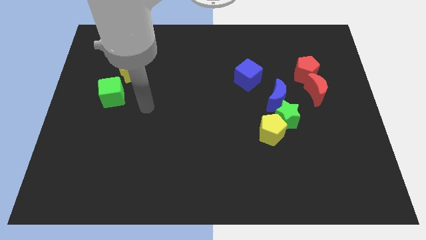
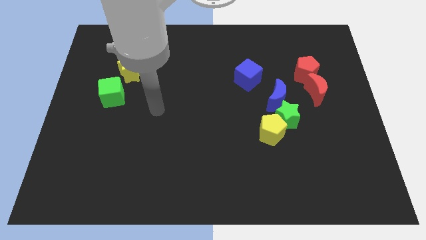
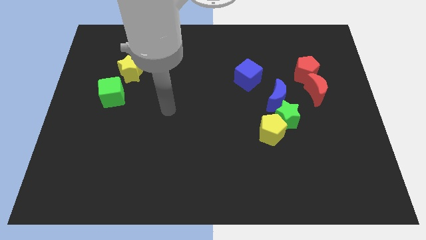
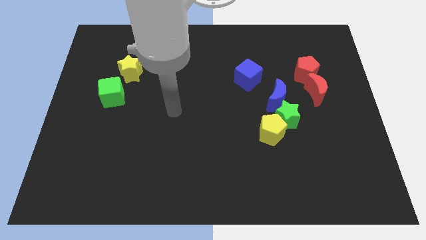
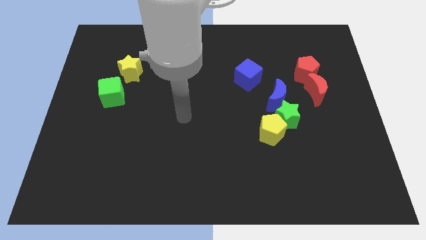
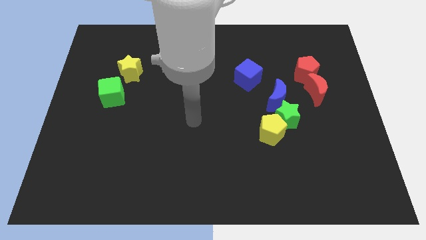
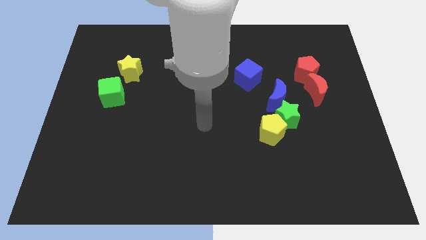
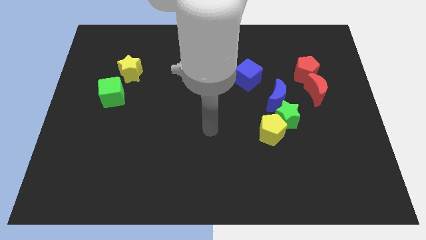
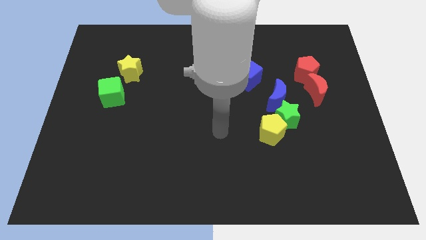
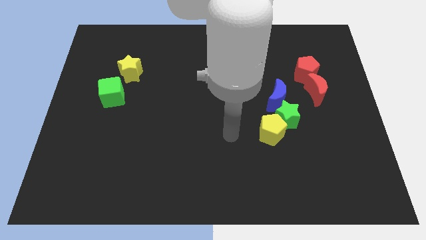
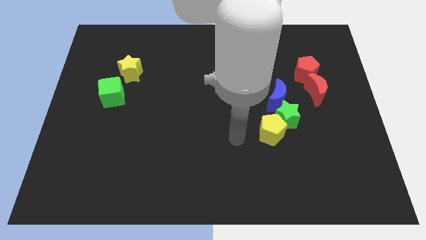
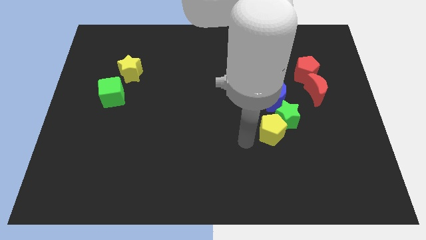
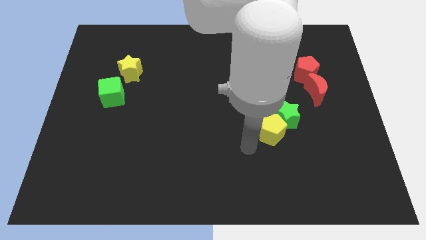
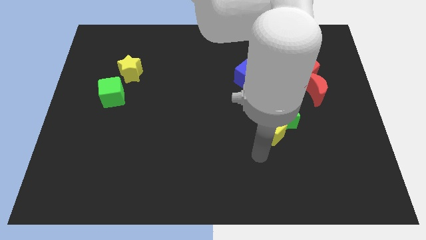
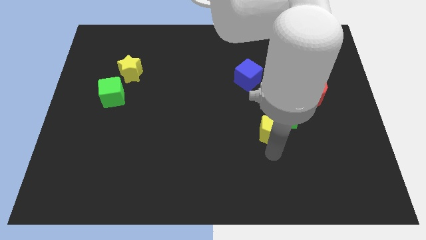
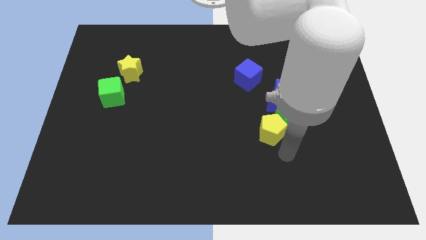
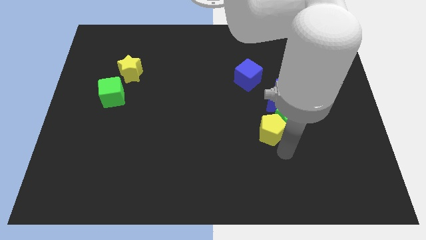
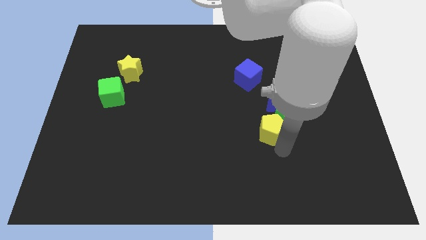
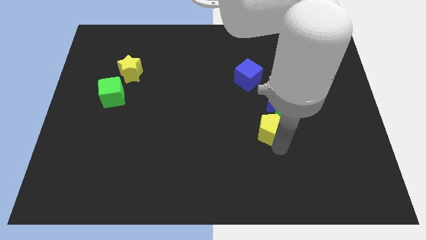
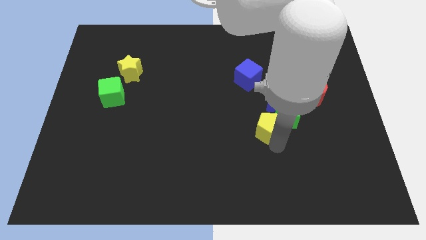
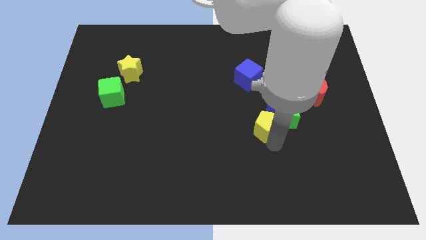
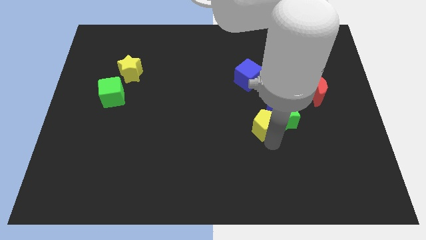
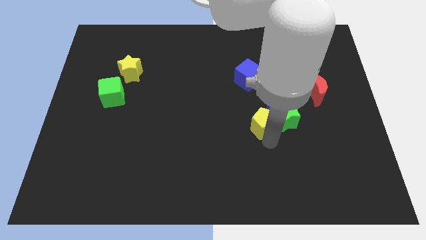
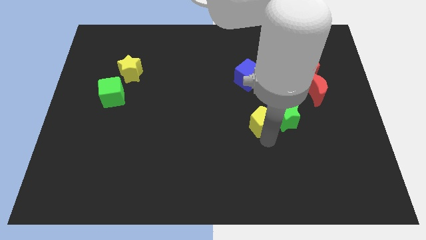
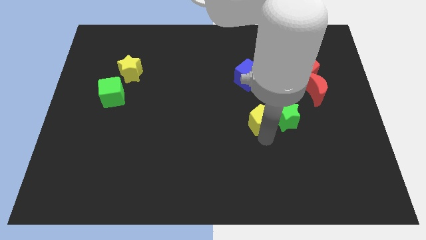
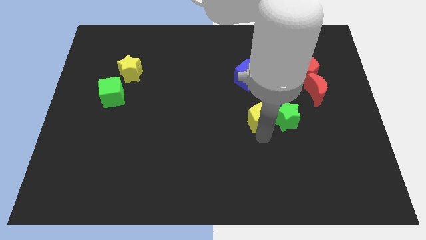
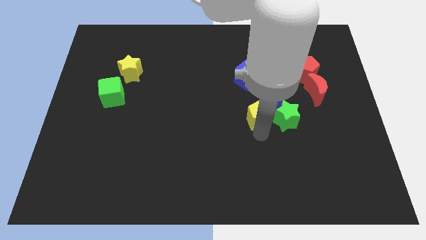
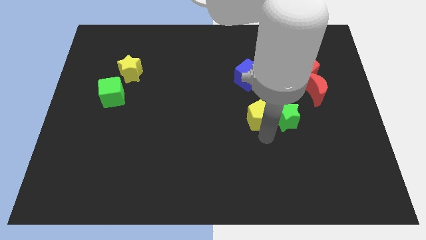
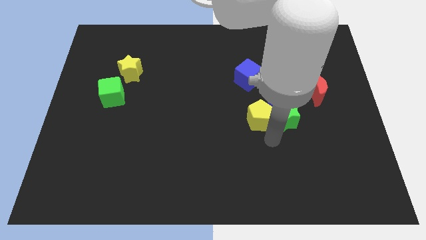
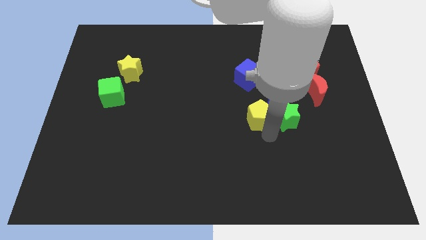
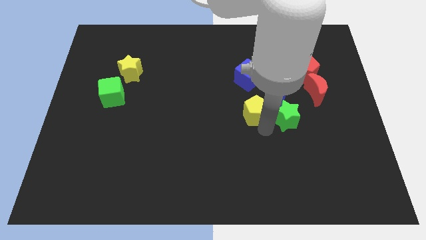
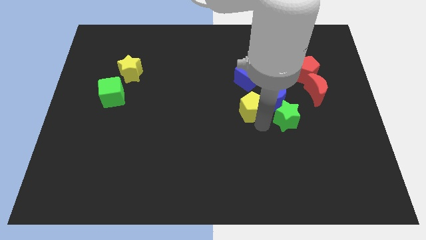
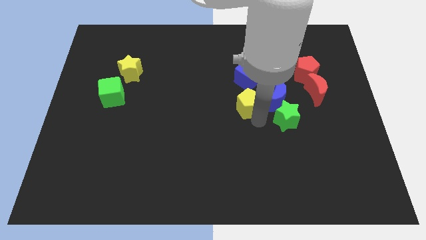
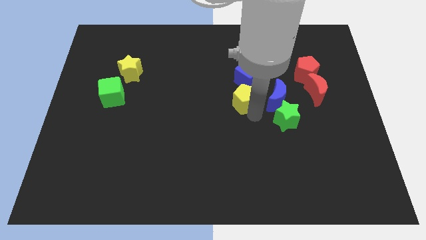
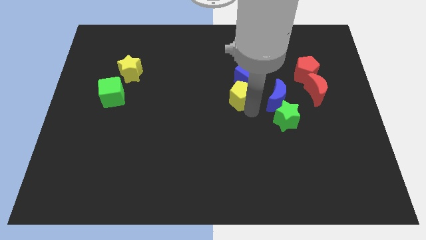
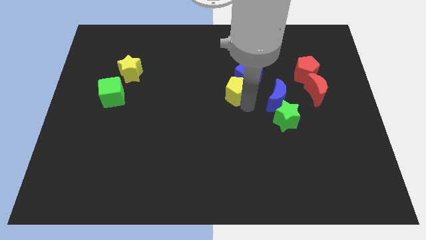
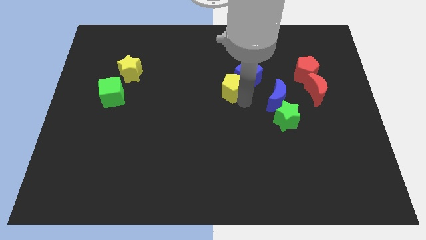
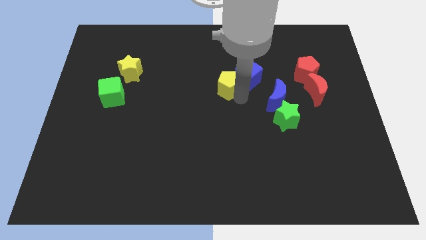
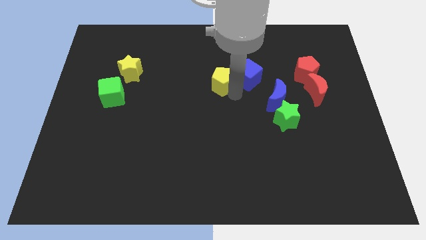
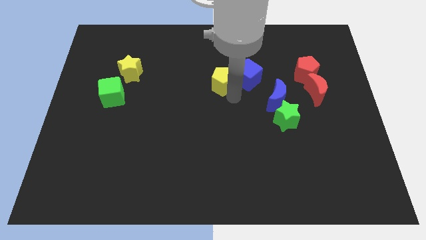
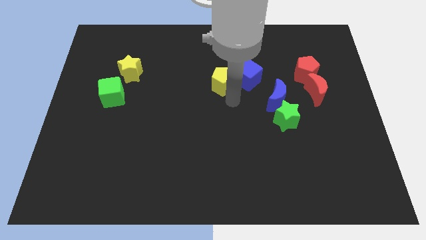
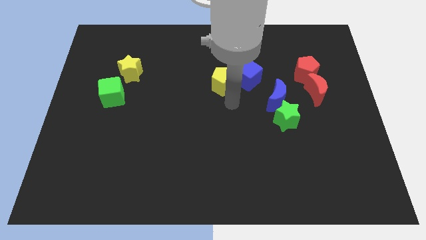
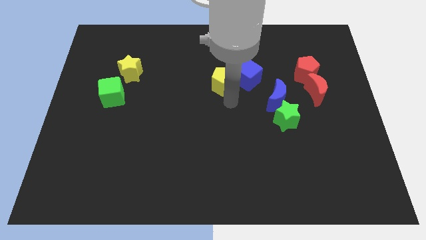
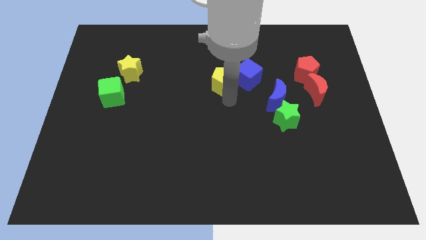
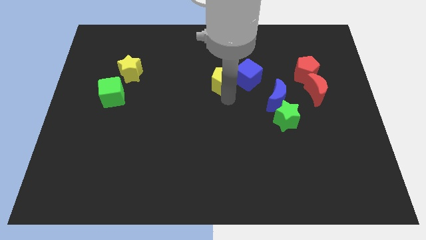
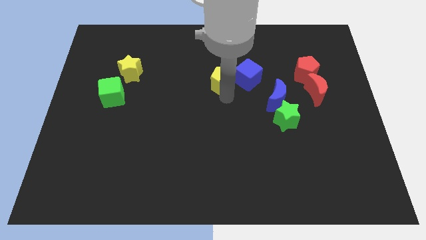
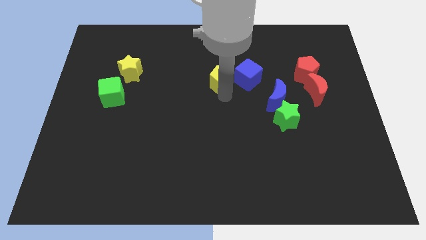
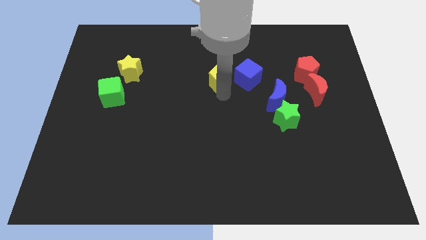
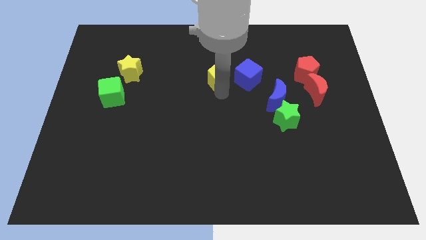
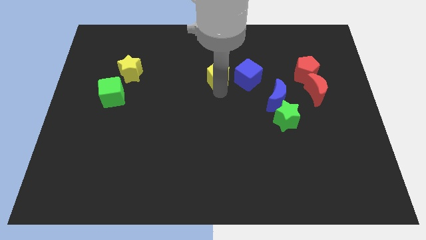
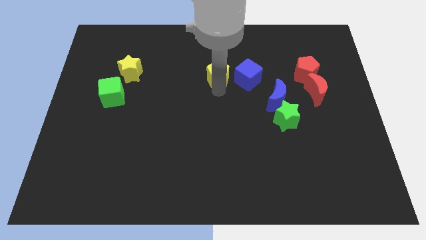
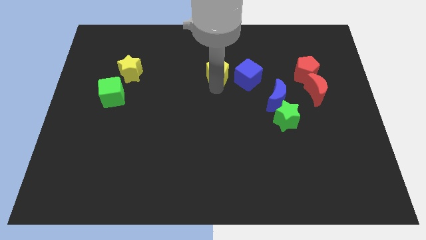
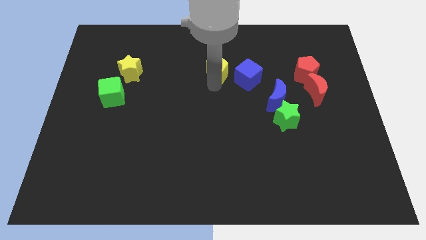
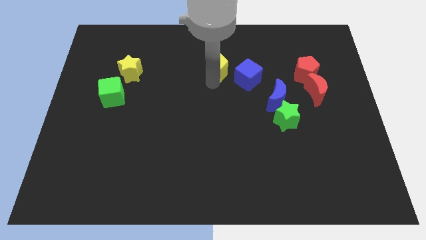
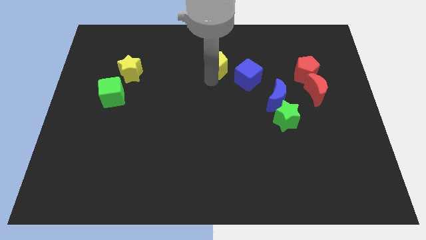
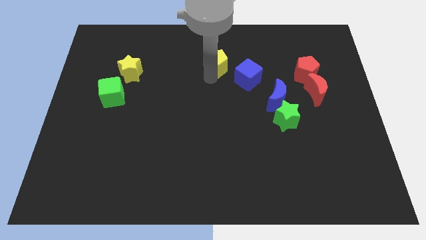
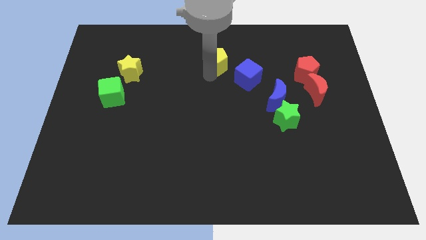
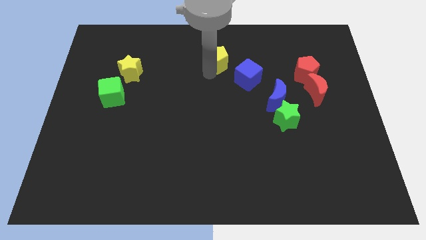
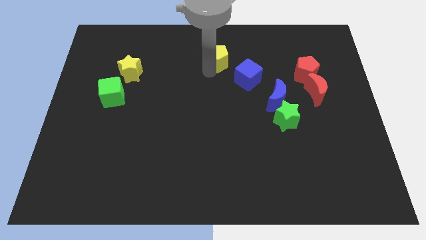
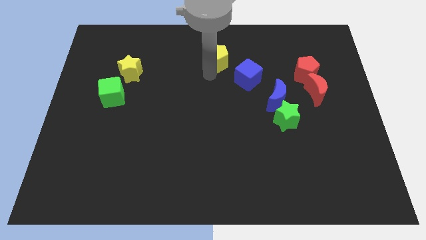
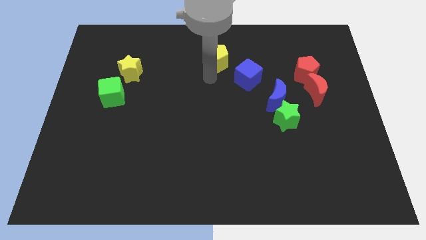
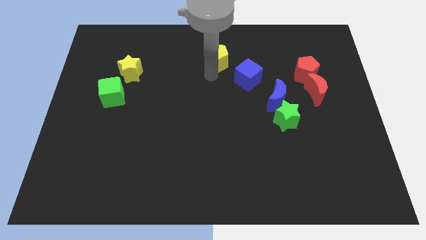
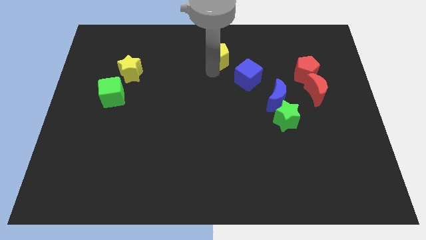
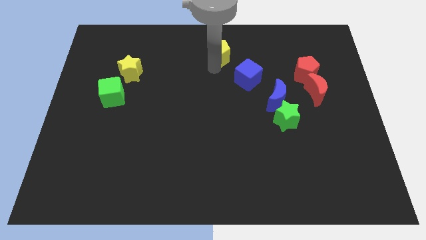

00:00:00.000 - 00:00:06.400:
put the yellow pentagon to the top side
